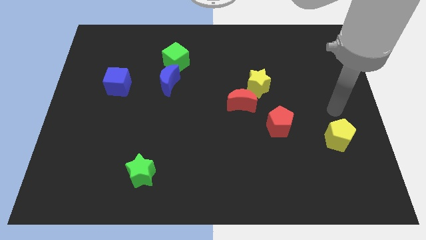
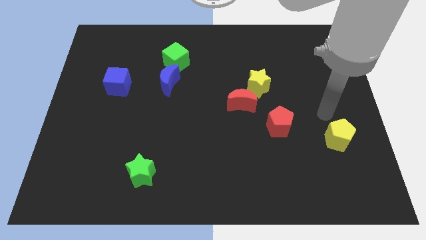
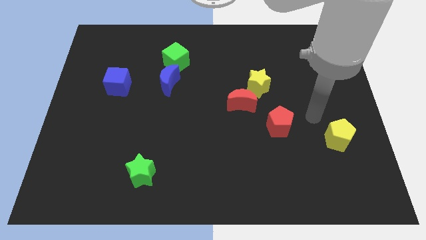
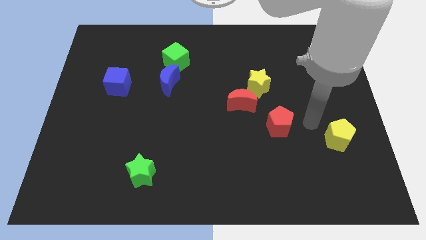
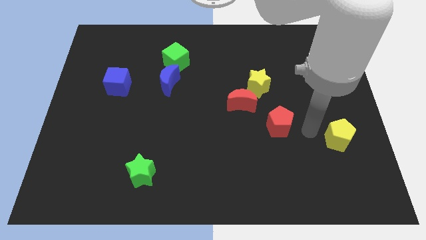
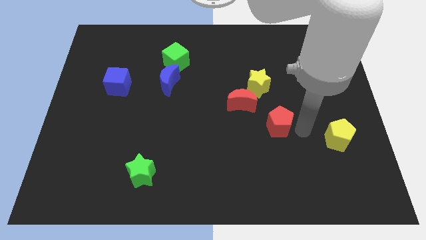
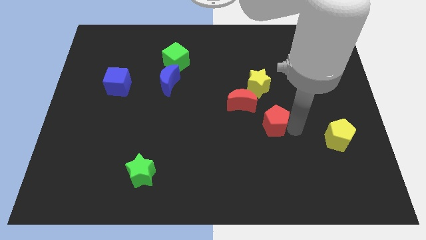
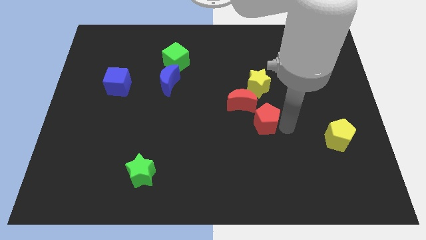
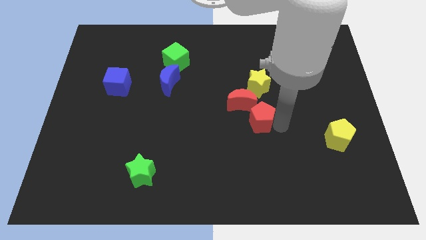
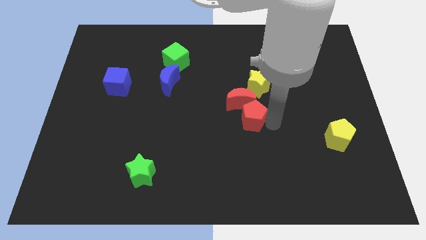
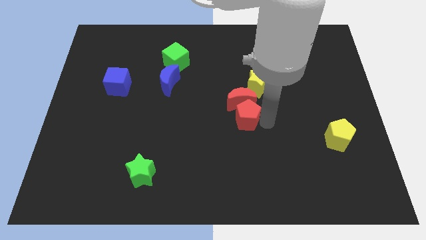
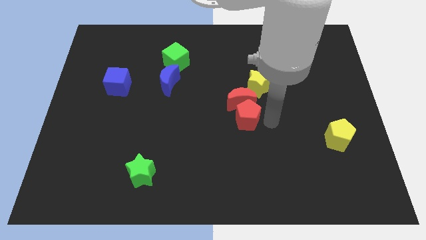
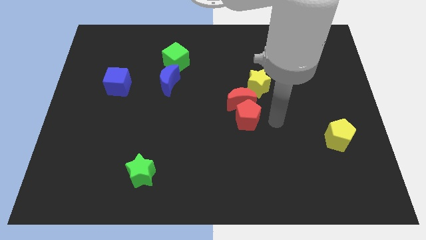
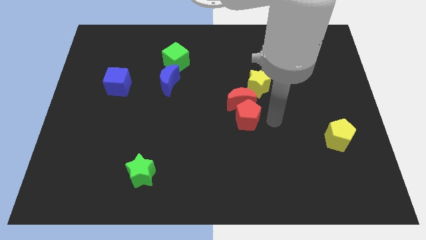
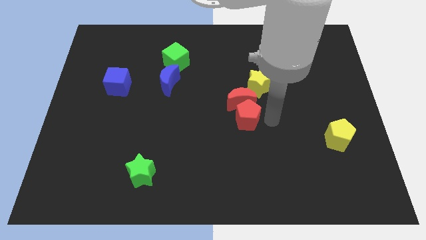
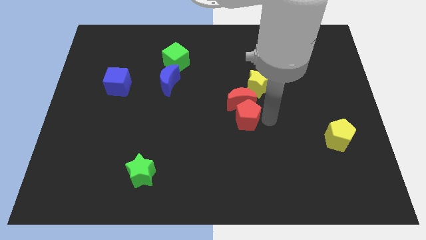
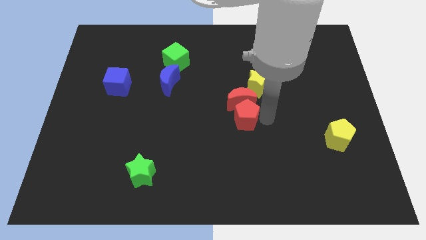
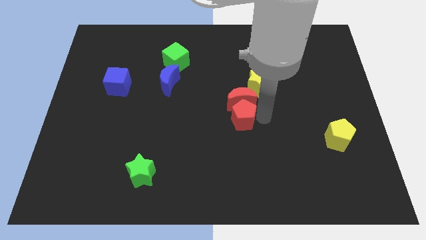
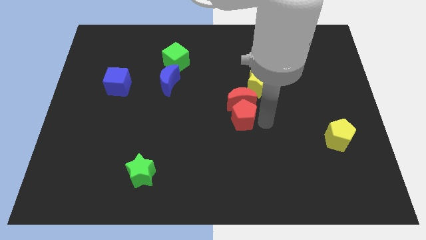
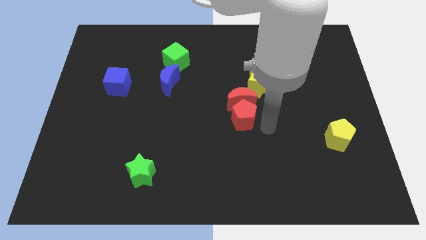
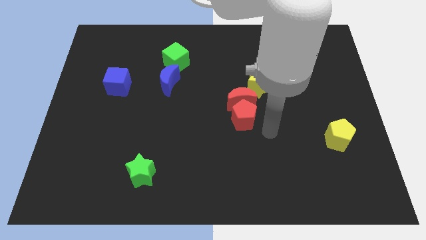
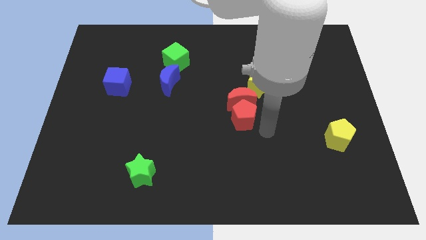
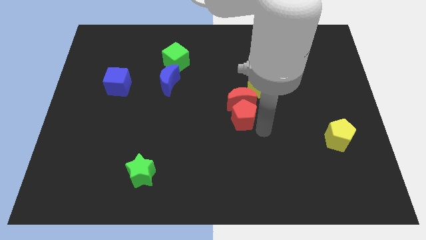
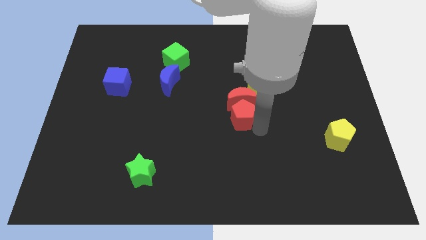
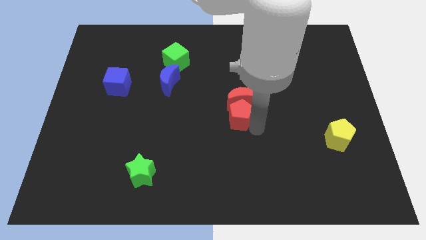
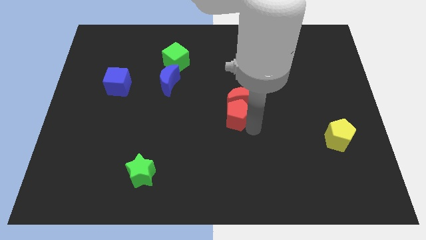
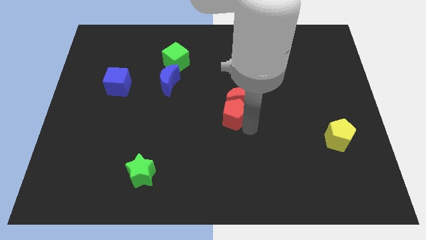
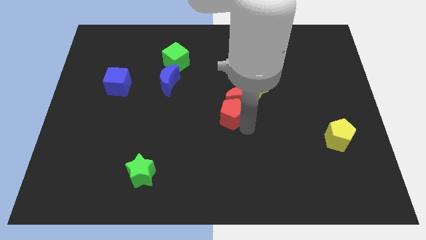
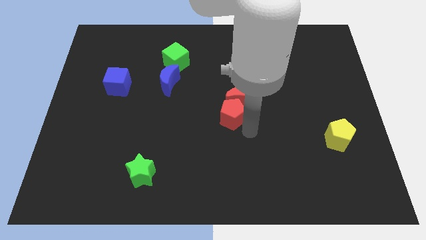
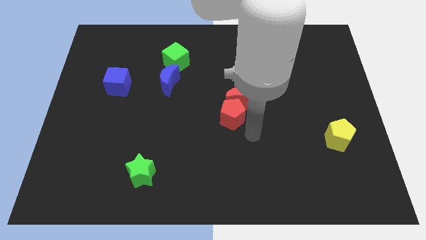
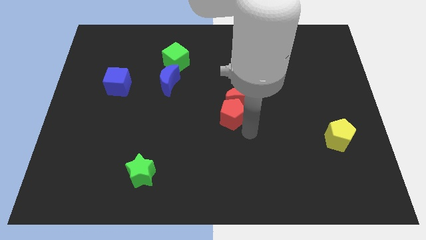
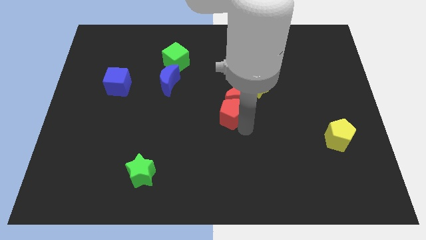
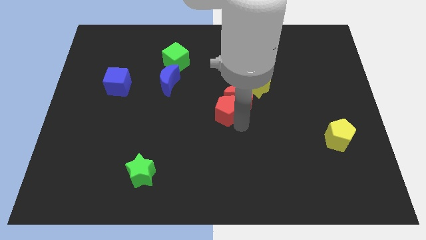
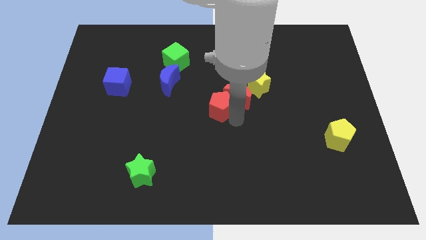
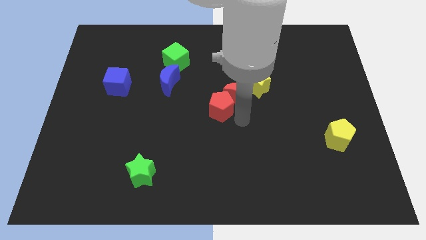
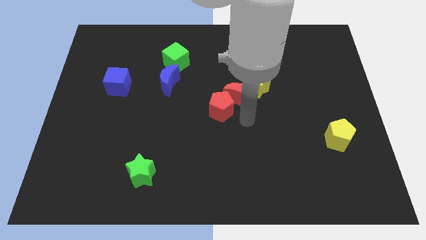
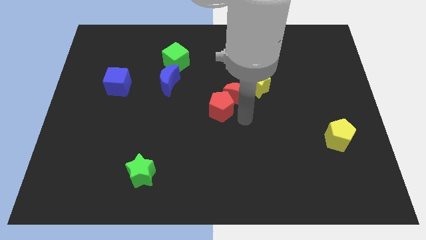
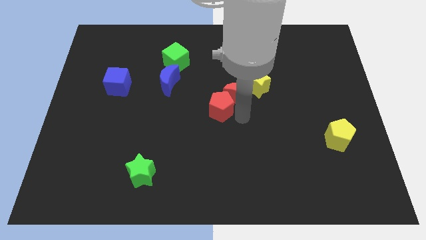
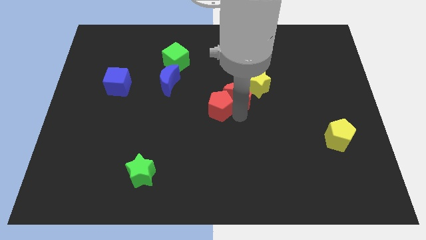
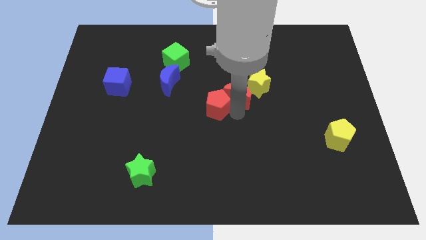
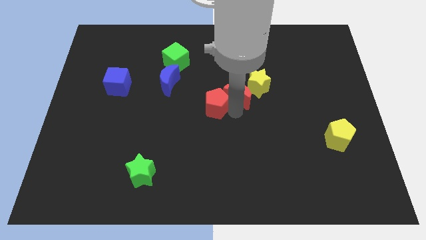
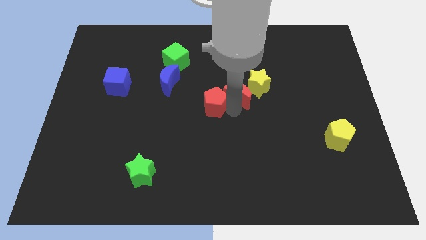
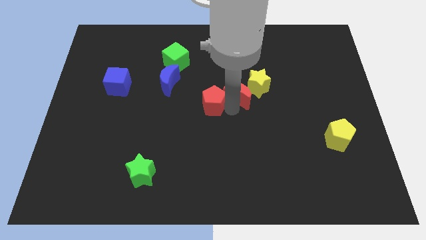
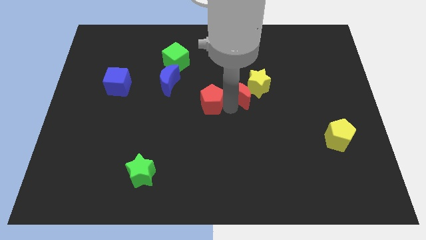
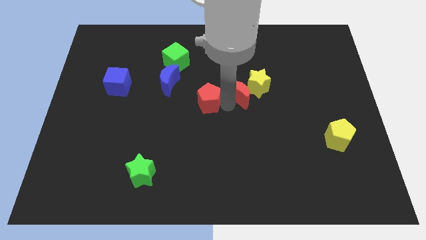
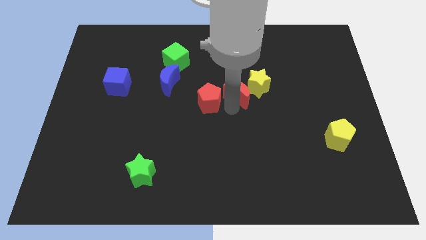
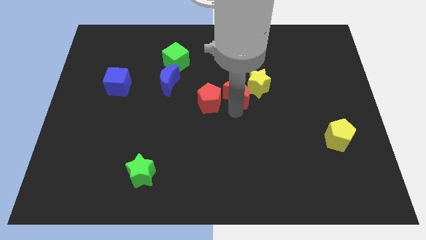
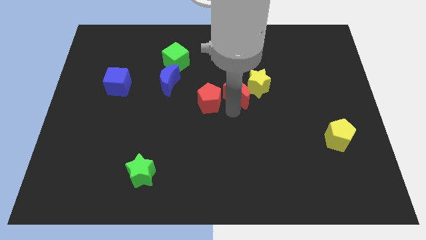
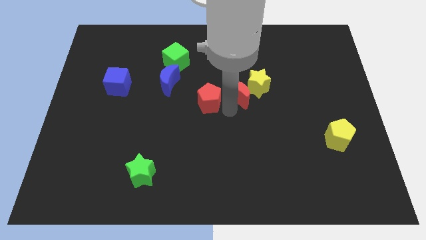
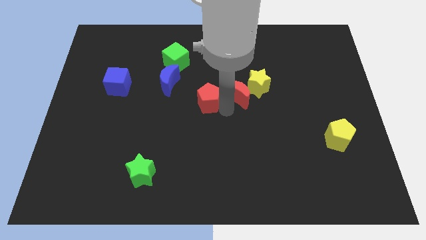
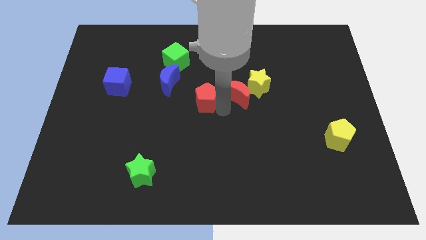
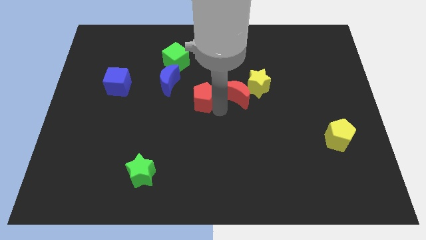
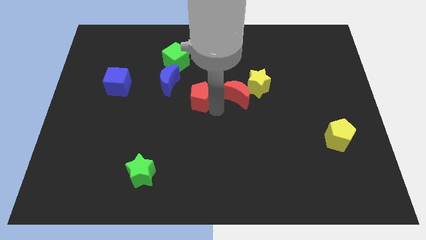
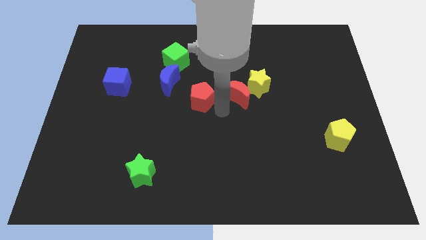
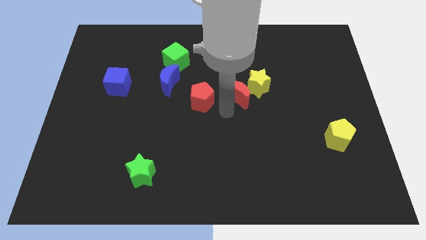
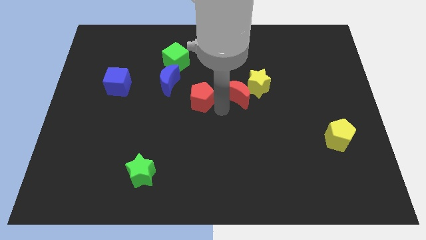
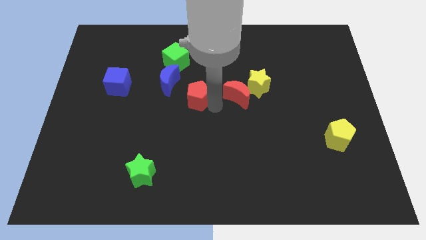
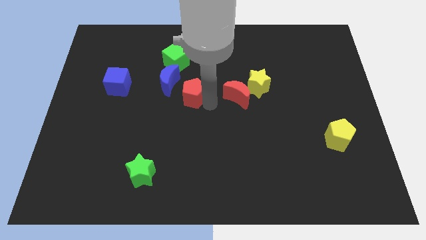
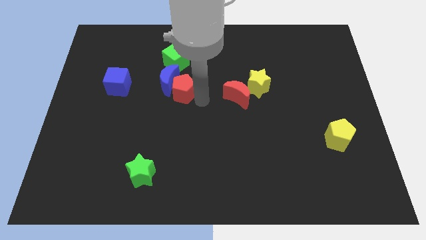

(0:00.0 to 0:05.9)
push the red pentagon next to the blue moon

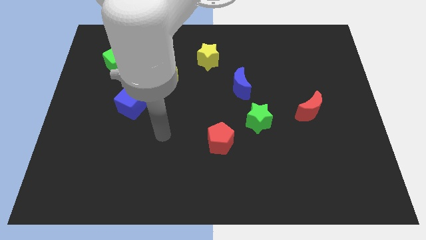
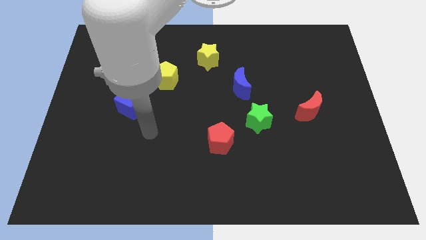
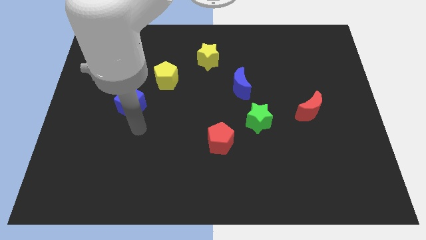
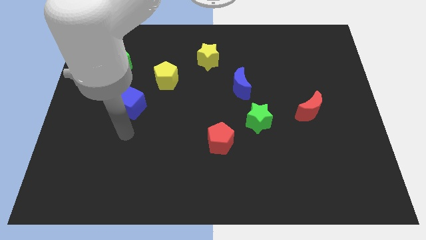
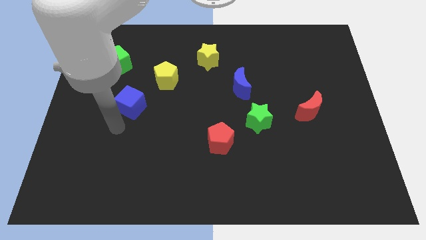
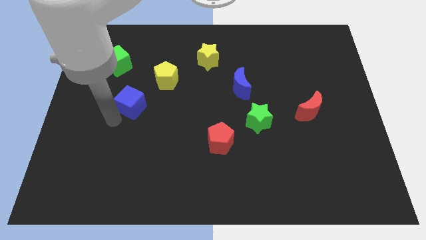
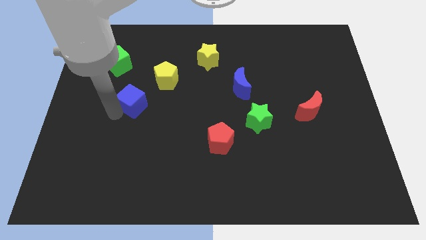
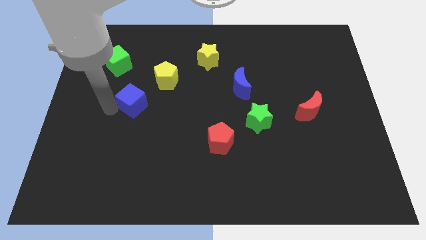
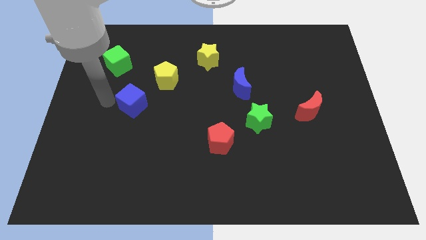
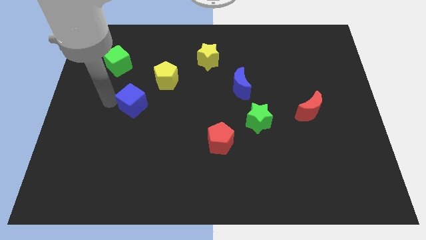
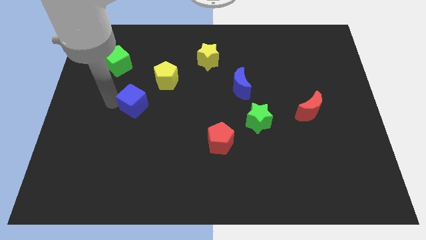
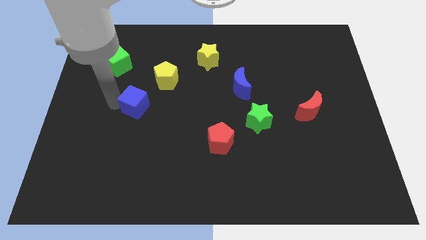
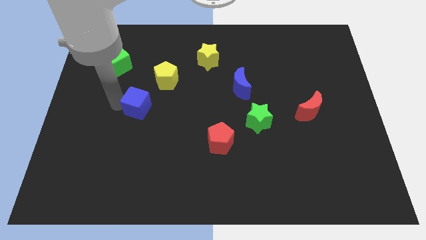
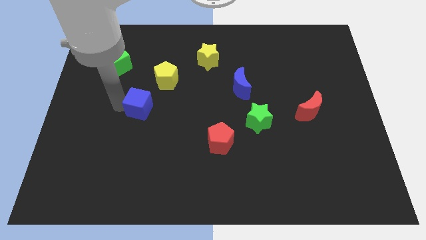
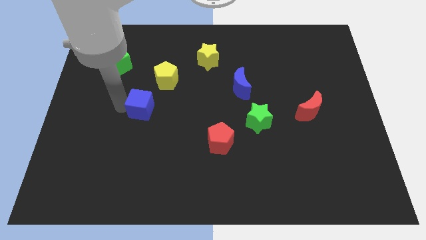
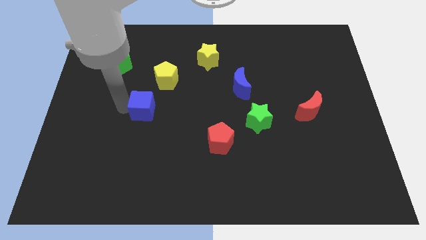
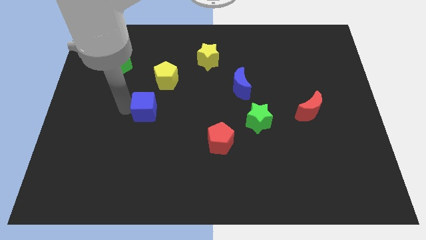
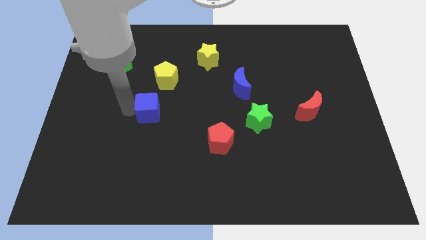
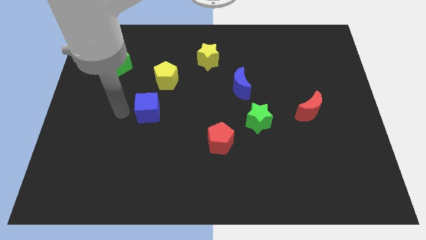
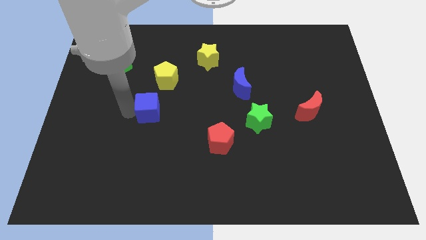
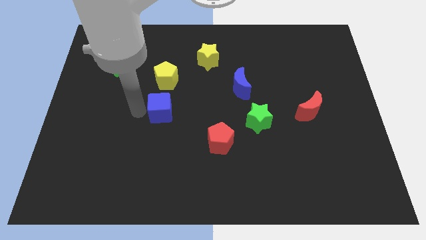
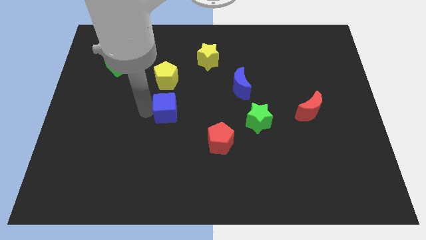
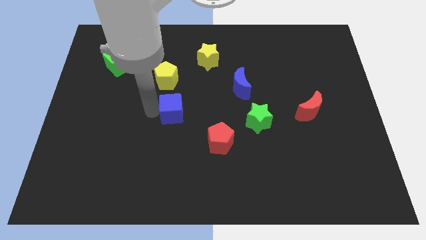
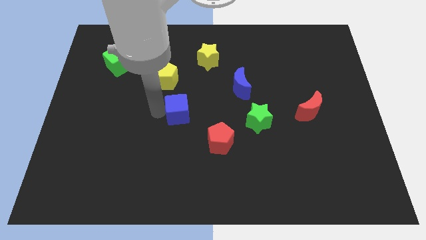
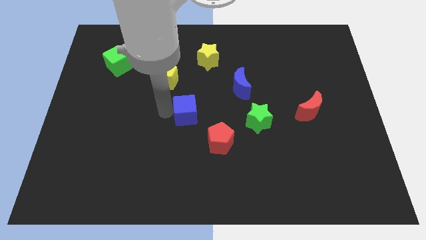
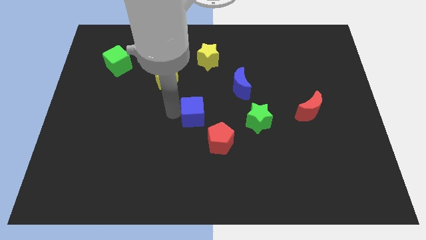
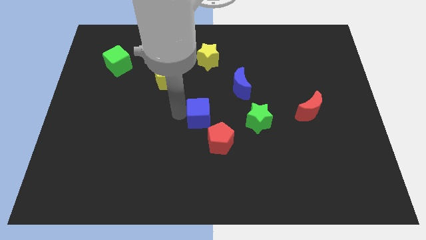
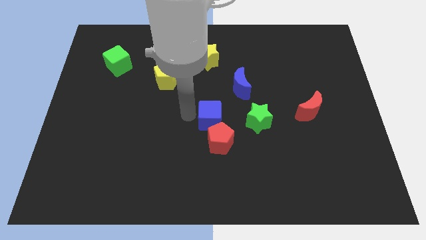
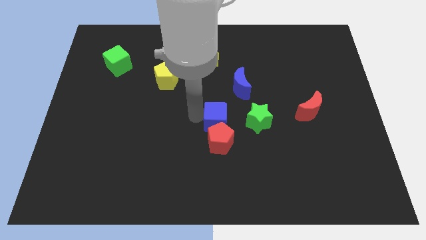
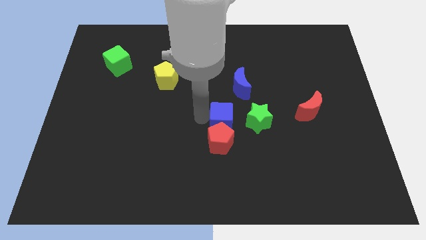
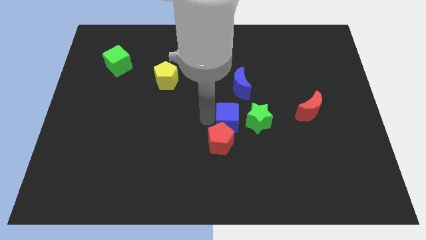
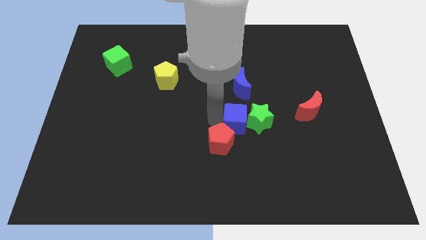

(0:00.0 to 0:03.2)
move the blue cube close to the green star
